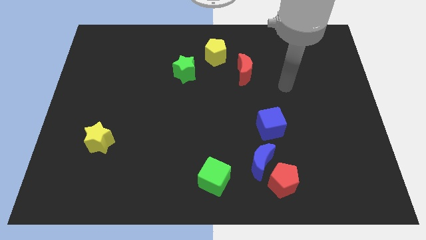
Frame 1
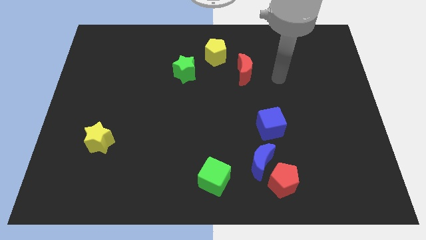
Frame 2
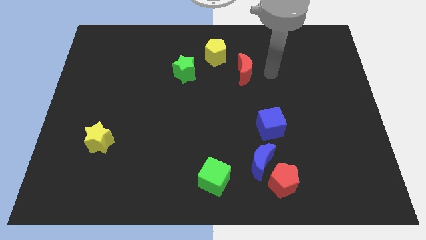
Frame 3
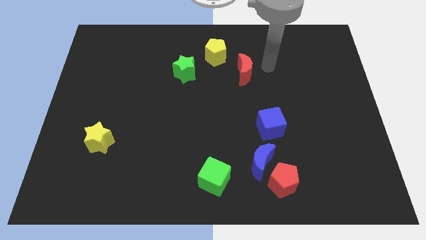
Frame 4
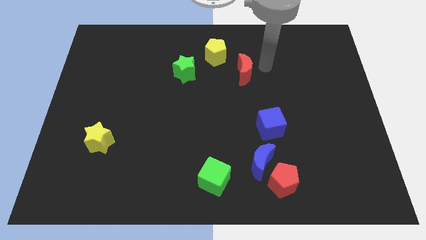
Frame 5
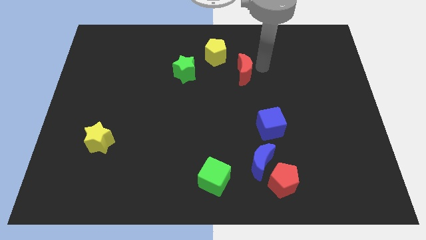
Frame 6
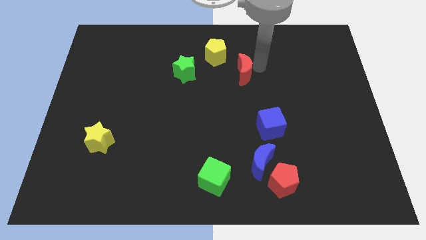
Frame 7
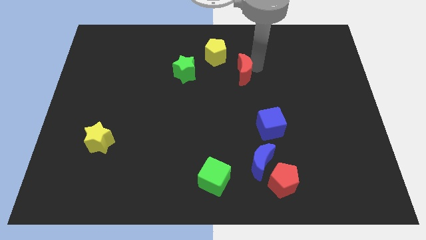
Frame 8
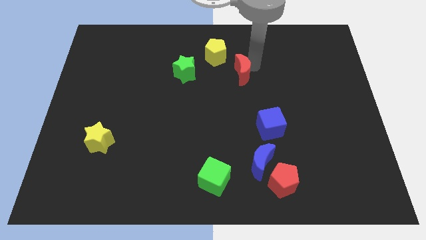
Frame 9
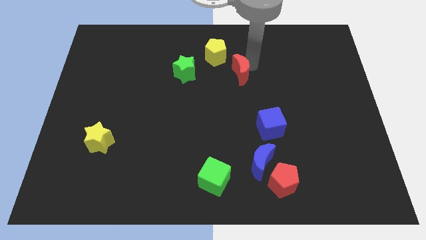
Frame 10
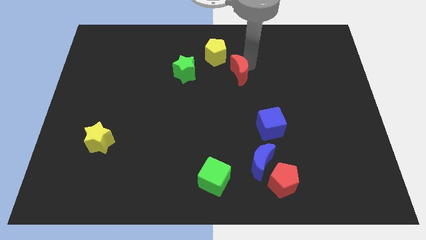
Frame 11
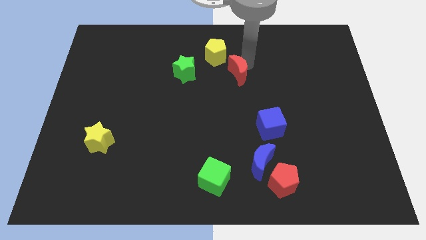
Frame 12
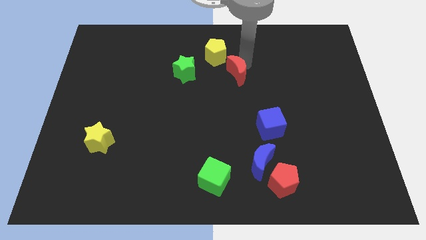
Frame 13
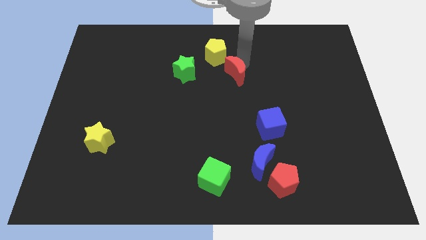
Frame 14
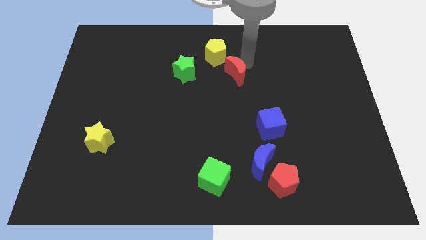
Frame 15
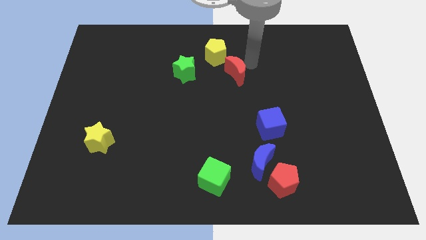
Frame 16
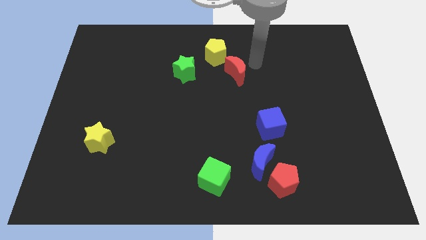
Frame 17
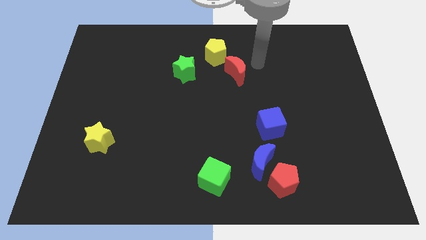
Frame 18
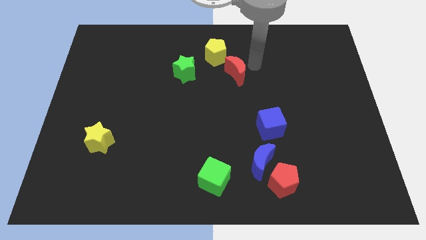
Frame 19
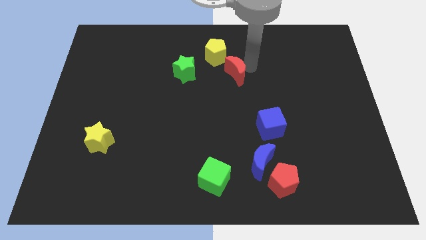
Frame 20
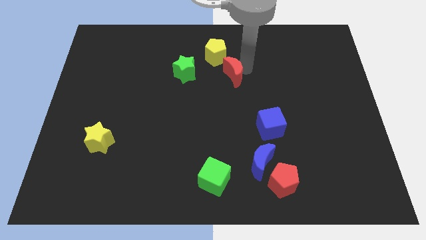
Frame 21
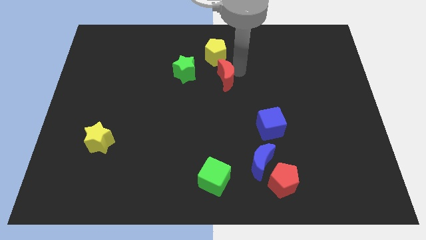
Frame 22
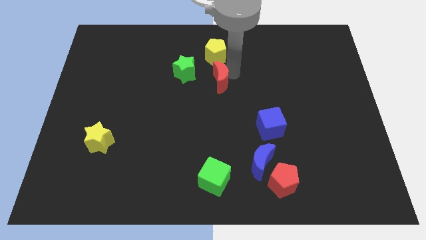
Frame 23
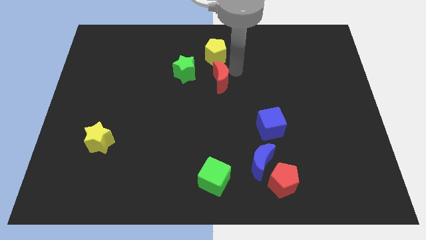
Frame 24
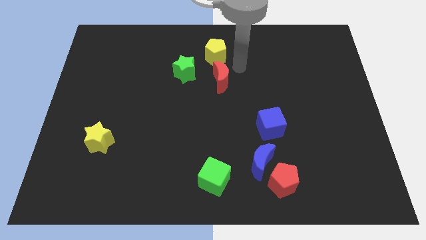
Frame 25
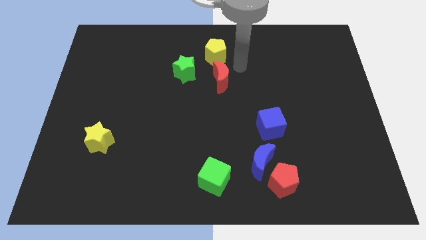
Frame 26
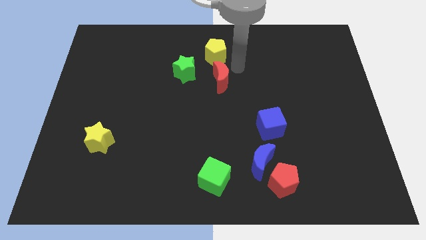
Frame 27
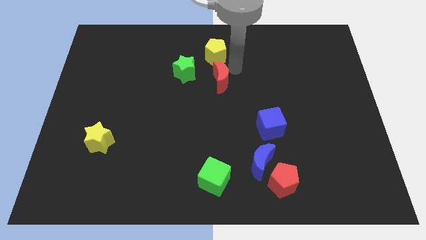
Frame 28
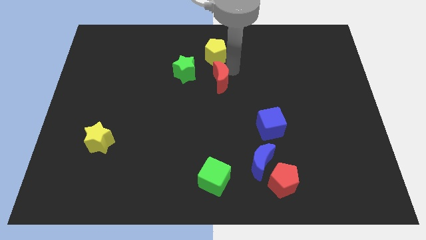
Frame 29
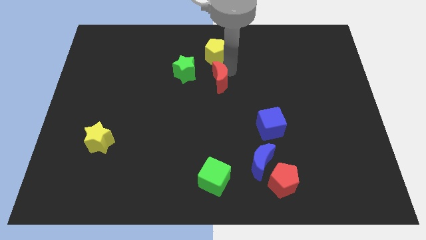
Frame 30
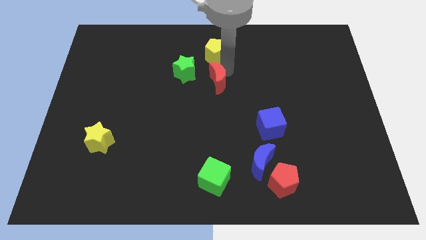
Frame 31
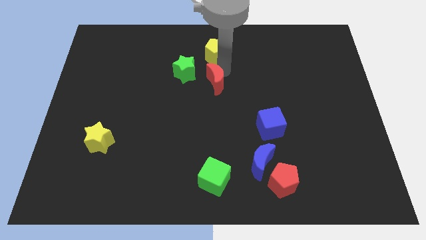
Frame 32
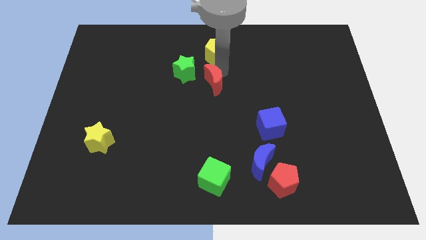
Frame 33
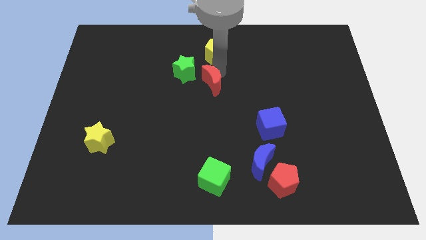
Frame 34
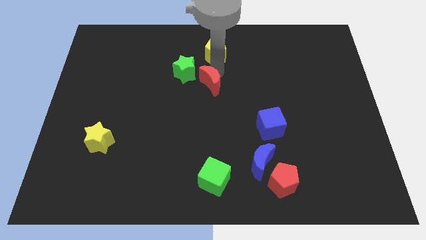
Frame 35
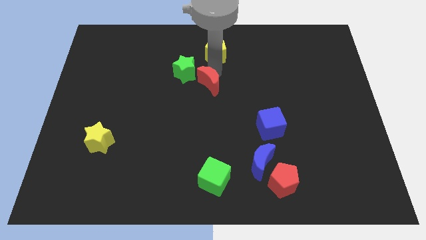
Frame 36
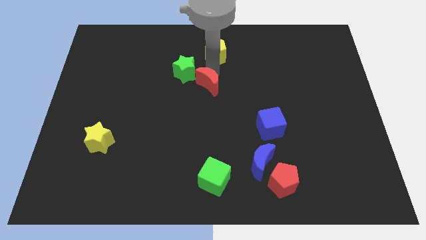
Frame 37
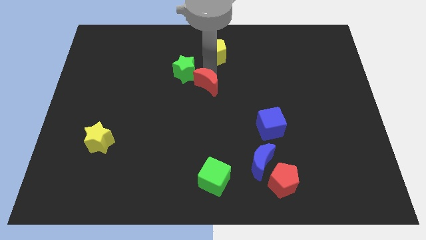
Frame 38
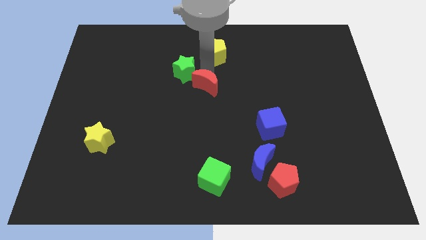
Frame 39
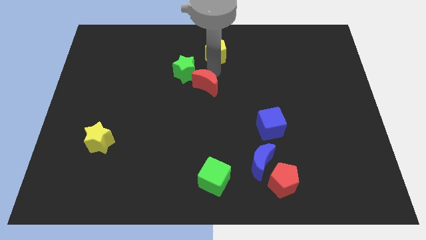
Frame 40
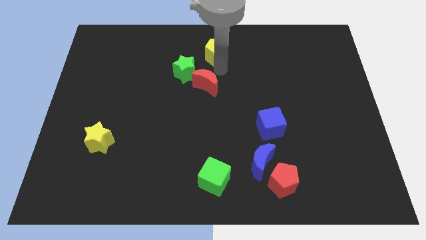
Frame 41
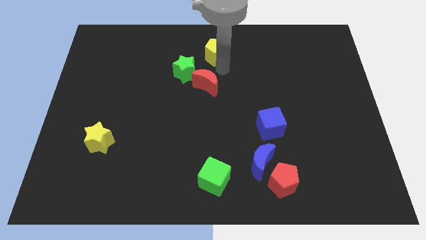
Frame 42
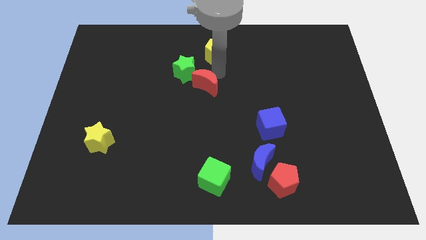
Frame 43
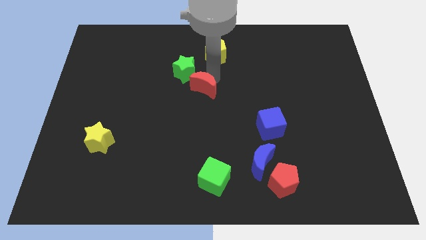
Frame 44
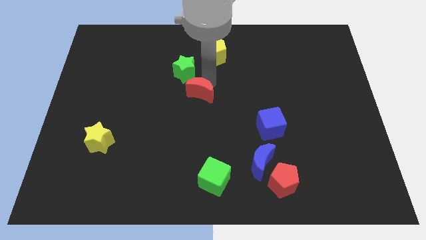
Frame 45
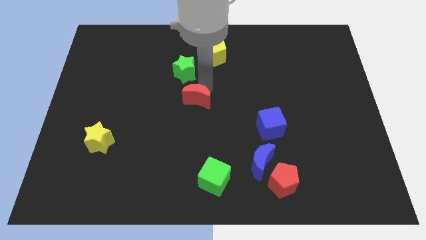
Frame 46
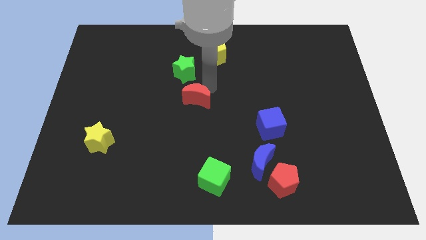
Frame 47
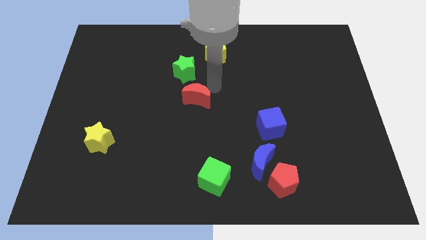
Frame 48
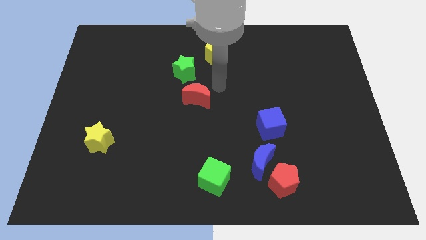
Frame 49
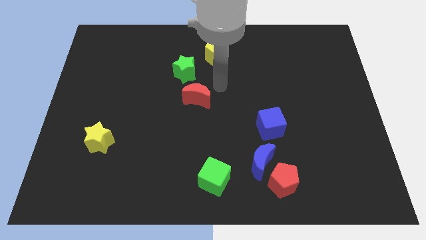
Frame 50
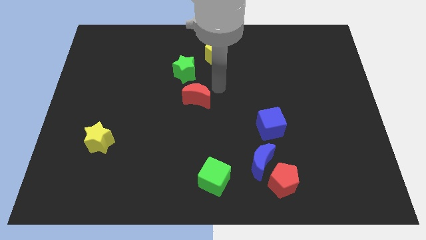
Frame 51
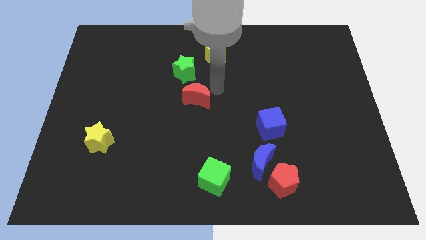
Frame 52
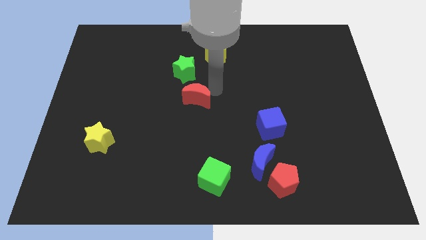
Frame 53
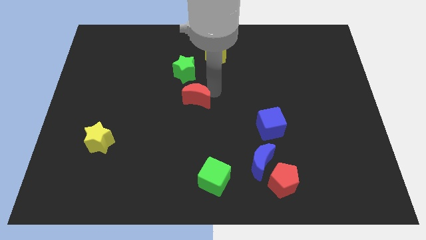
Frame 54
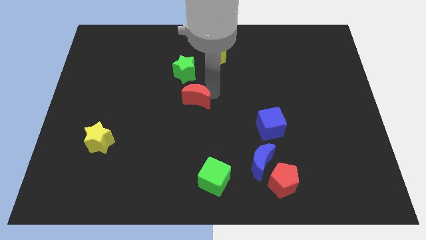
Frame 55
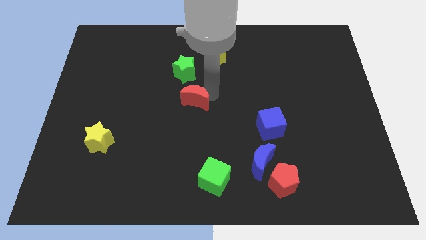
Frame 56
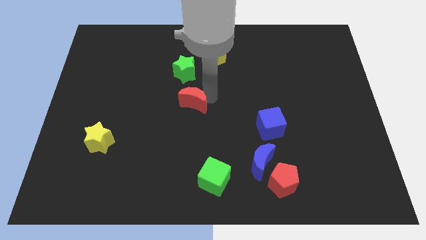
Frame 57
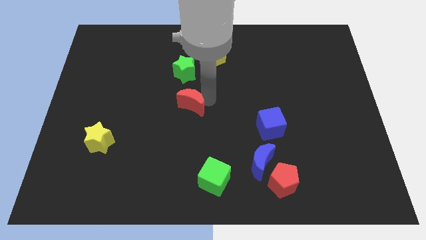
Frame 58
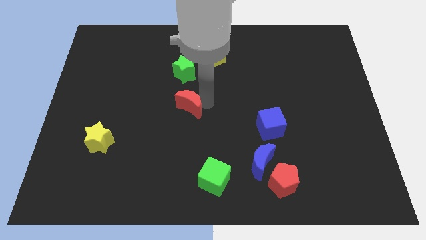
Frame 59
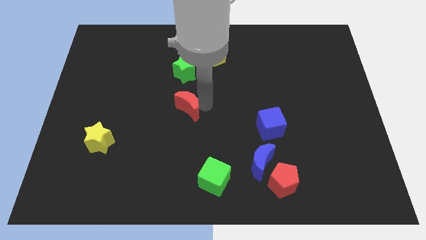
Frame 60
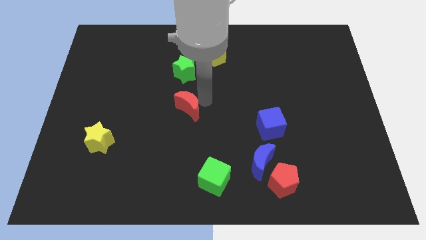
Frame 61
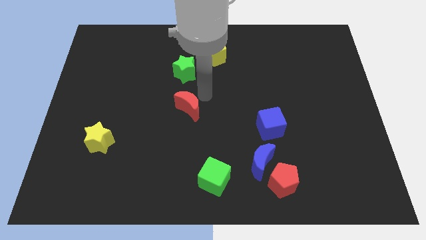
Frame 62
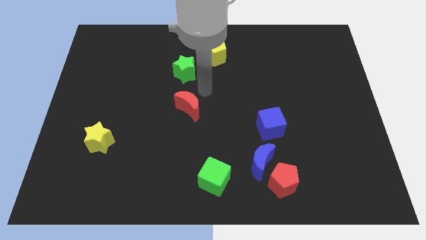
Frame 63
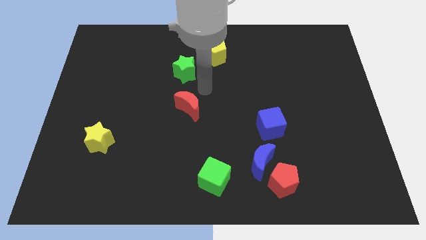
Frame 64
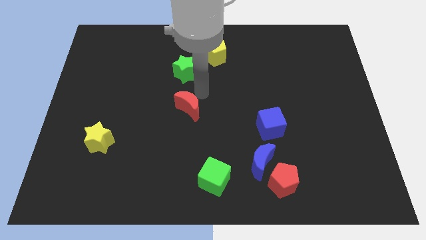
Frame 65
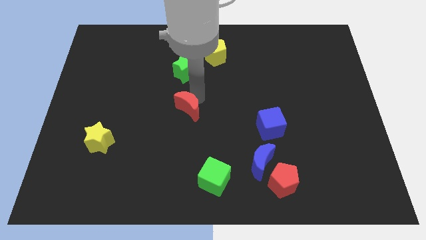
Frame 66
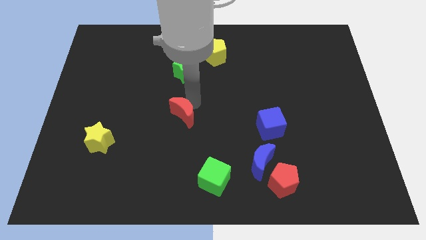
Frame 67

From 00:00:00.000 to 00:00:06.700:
slide the red moon downwards and left diagonally

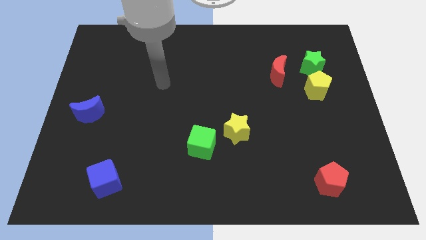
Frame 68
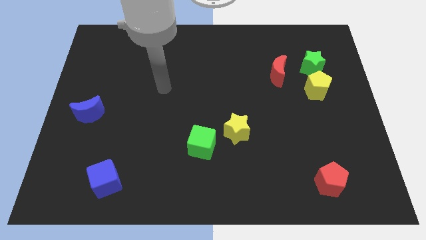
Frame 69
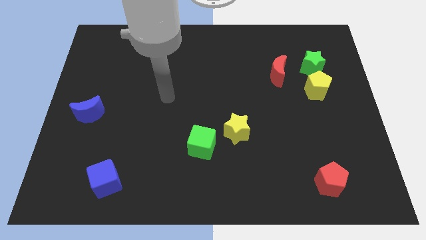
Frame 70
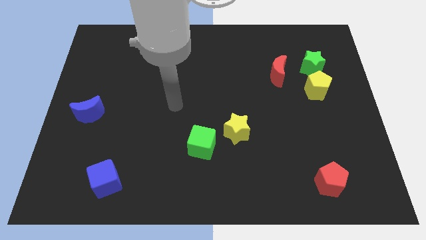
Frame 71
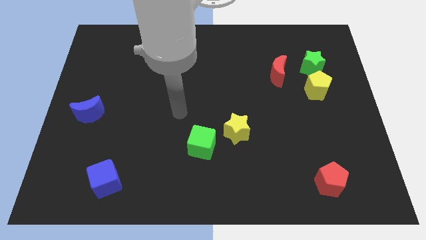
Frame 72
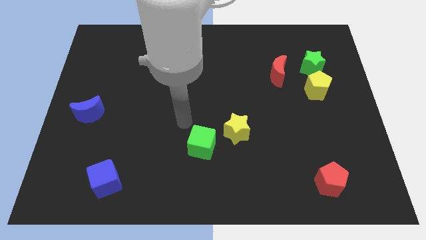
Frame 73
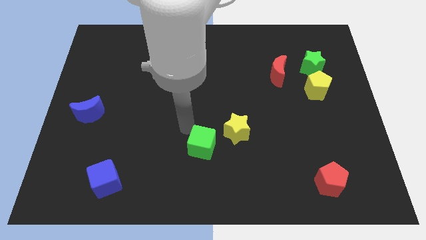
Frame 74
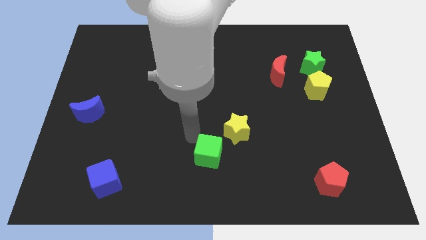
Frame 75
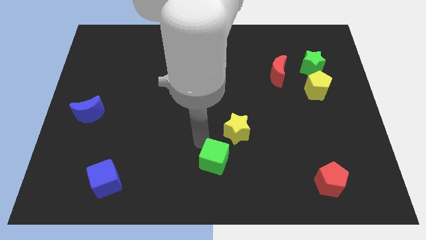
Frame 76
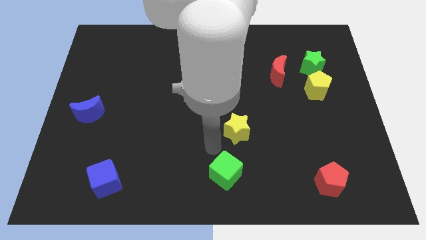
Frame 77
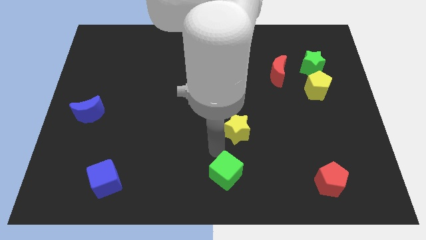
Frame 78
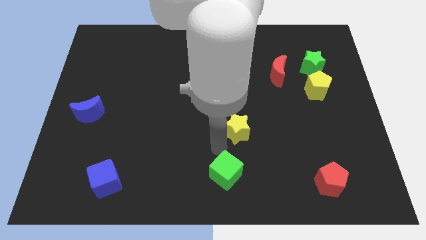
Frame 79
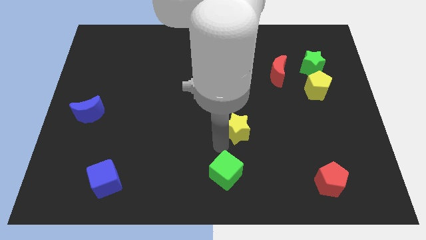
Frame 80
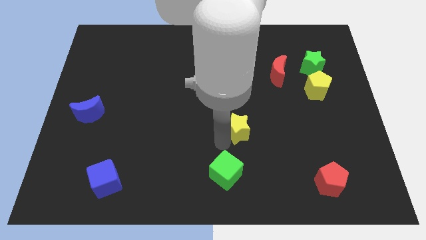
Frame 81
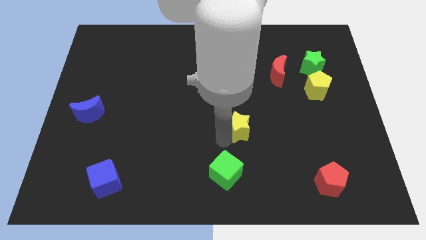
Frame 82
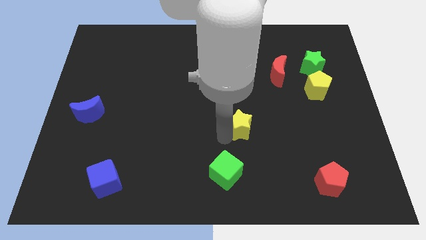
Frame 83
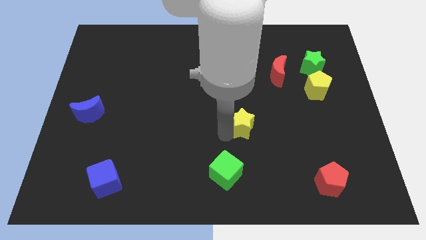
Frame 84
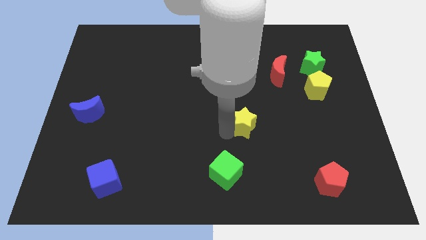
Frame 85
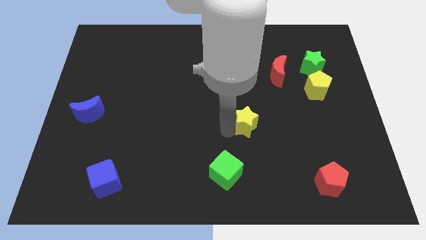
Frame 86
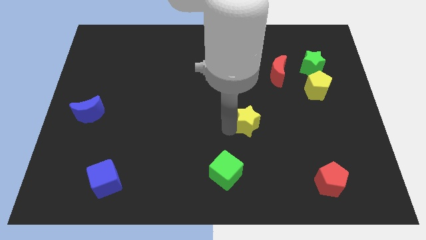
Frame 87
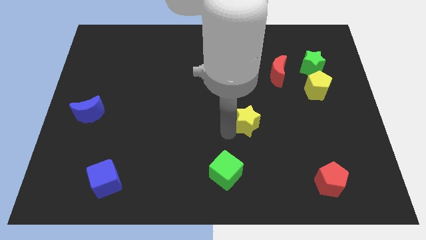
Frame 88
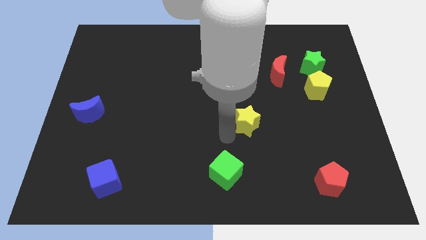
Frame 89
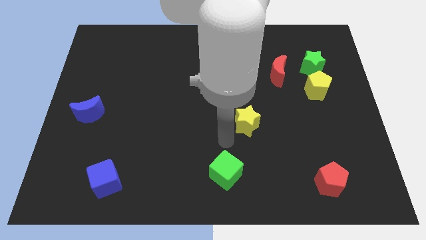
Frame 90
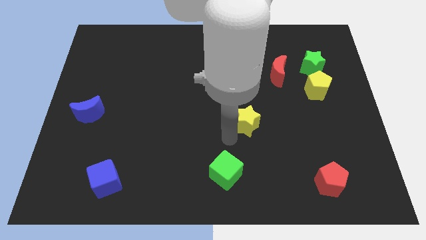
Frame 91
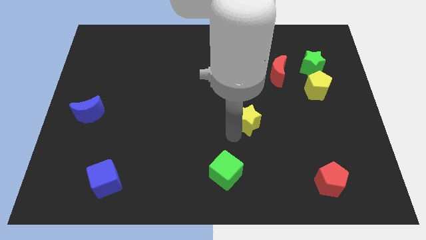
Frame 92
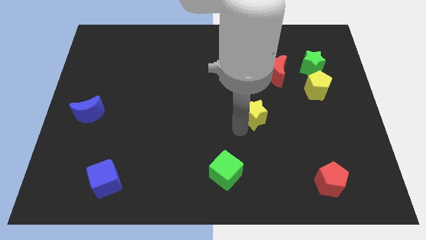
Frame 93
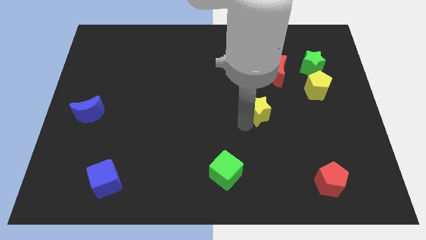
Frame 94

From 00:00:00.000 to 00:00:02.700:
push the yellow star upwards and to the right slightly
